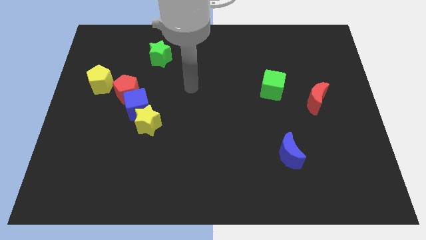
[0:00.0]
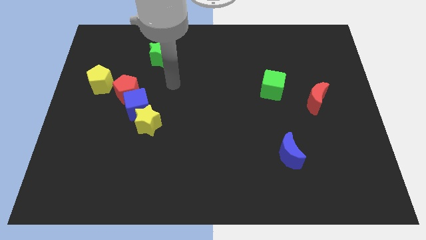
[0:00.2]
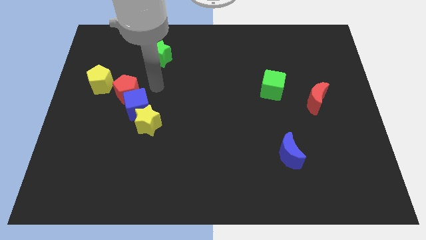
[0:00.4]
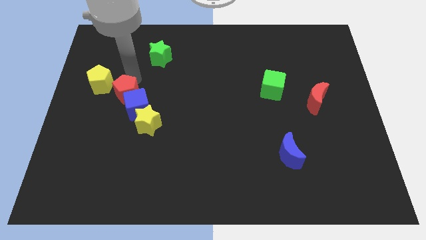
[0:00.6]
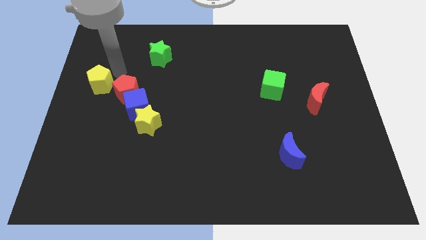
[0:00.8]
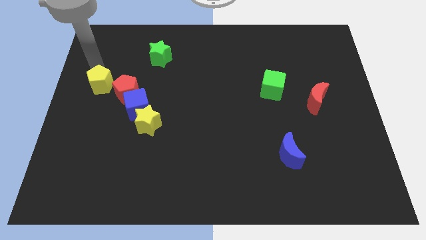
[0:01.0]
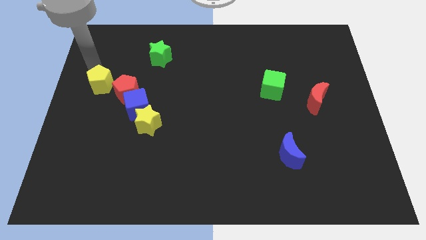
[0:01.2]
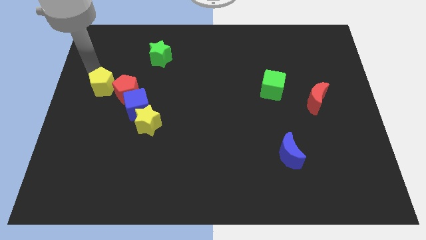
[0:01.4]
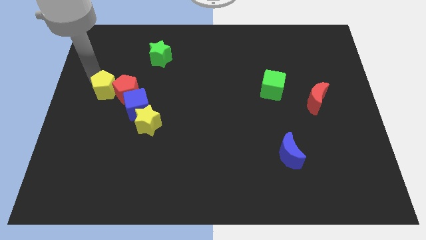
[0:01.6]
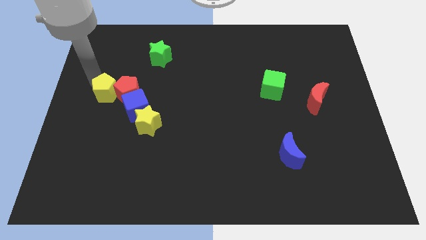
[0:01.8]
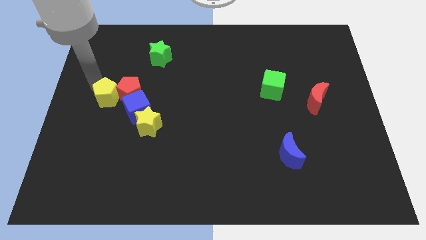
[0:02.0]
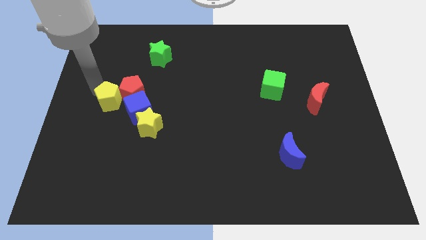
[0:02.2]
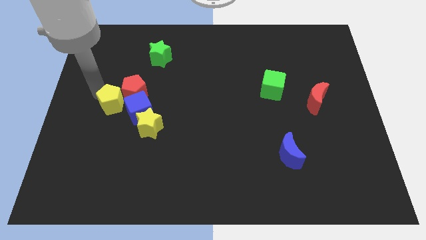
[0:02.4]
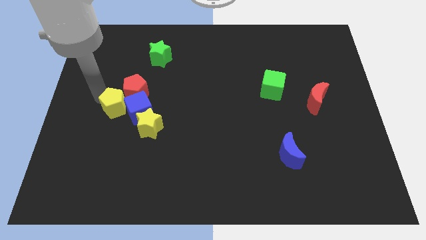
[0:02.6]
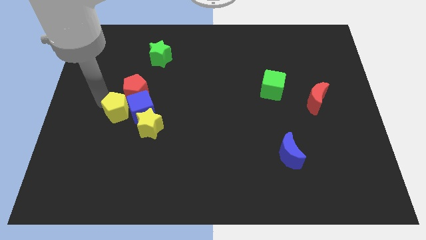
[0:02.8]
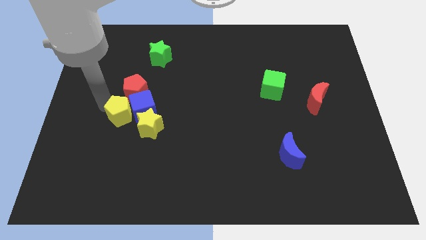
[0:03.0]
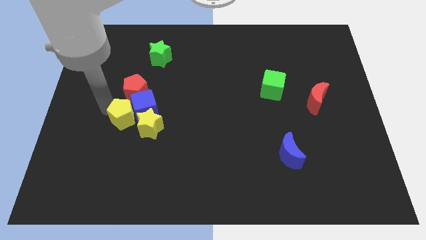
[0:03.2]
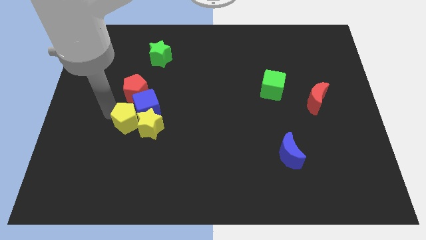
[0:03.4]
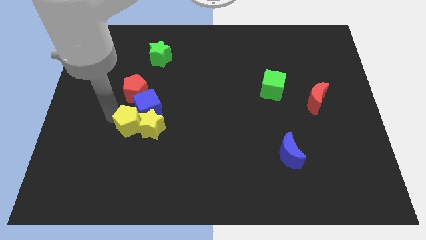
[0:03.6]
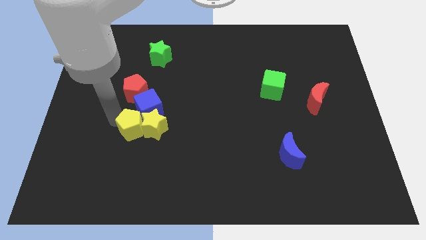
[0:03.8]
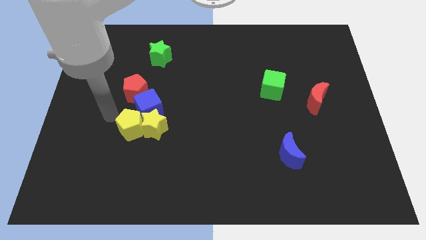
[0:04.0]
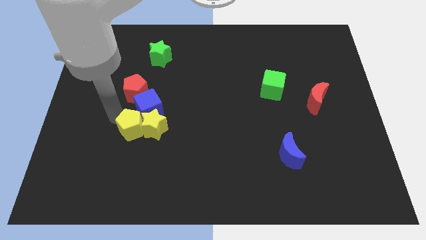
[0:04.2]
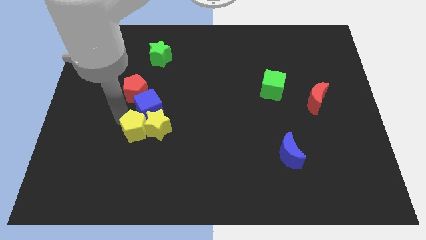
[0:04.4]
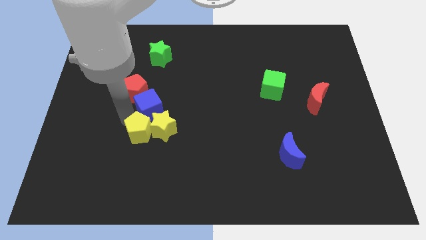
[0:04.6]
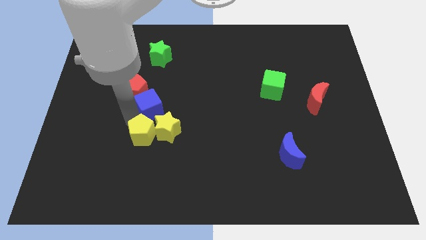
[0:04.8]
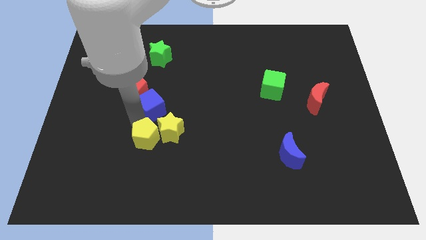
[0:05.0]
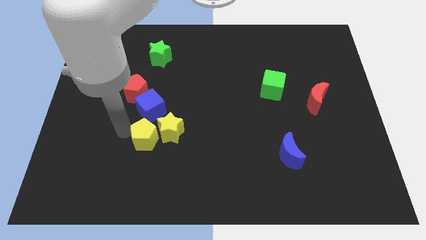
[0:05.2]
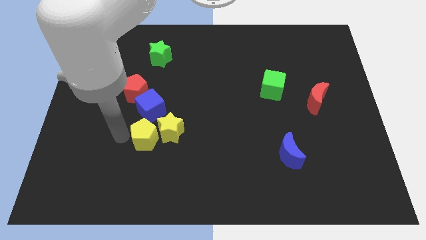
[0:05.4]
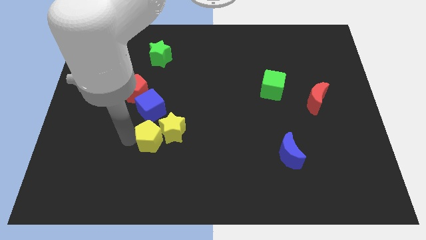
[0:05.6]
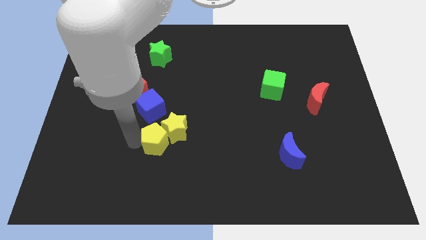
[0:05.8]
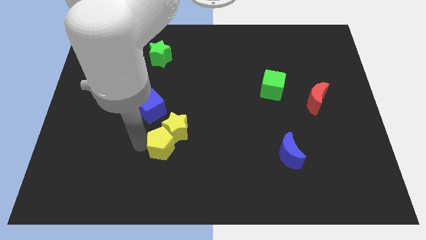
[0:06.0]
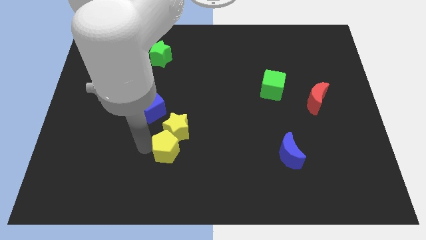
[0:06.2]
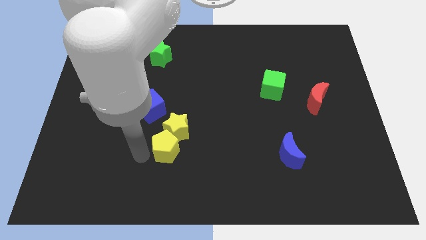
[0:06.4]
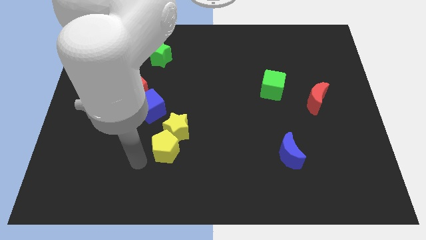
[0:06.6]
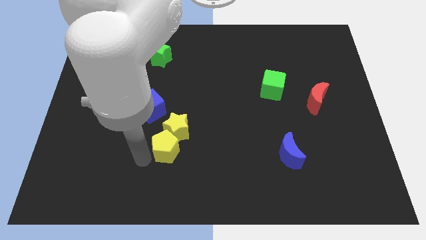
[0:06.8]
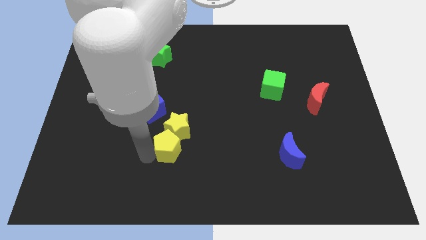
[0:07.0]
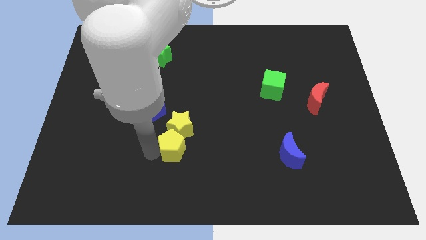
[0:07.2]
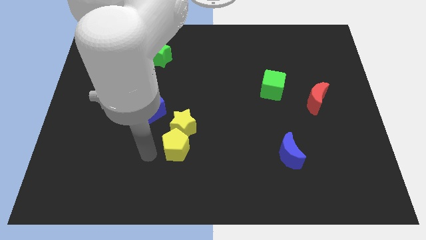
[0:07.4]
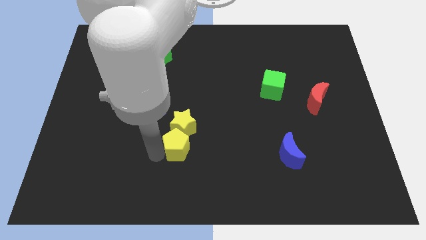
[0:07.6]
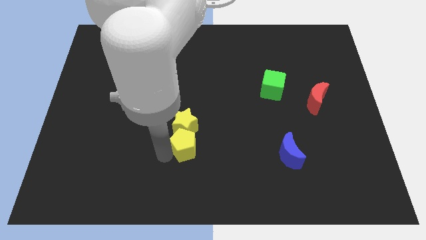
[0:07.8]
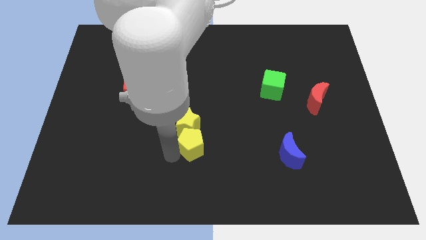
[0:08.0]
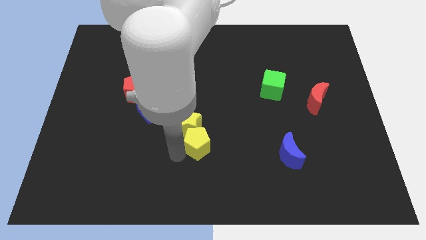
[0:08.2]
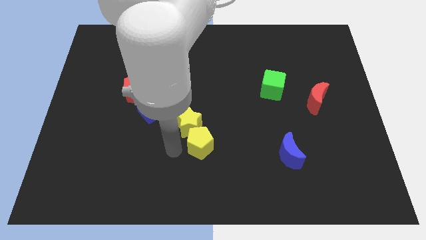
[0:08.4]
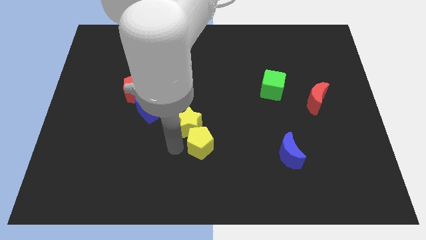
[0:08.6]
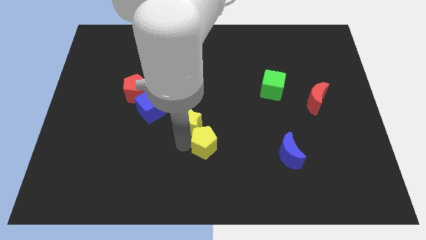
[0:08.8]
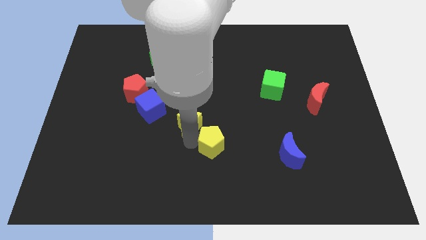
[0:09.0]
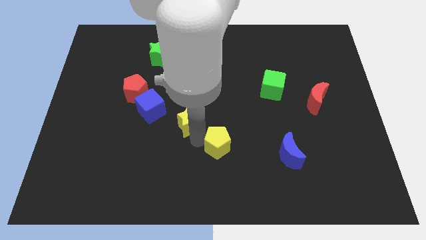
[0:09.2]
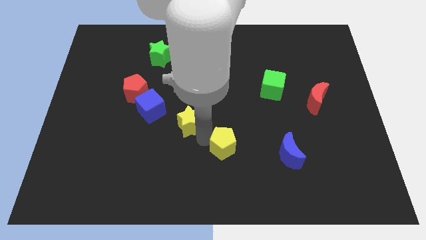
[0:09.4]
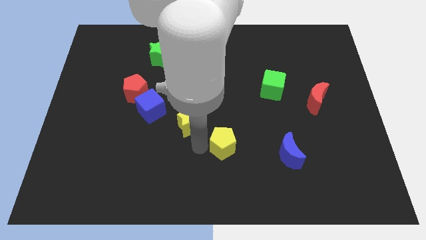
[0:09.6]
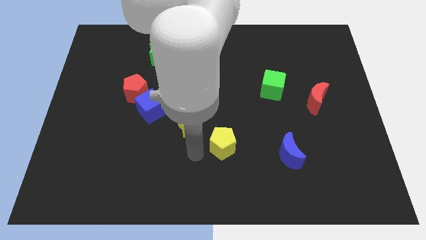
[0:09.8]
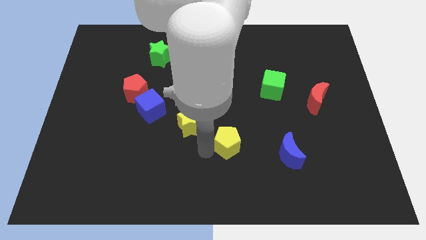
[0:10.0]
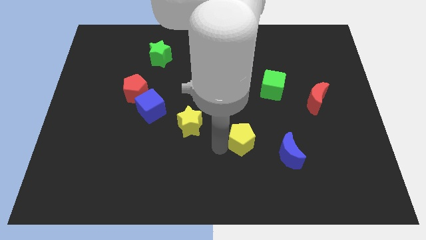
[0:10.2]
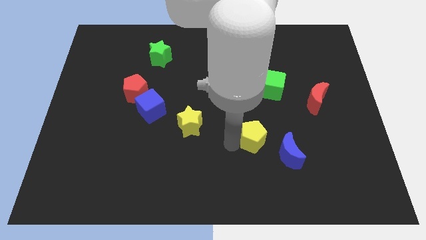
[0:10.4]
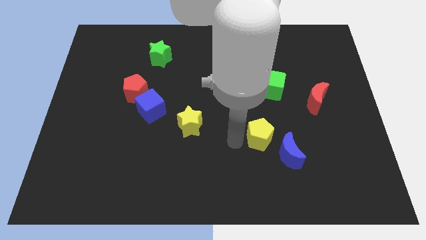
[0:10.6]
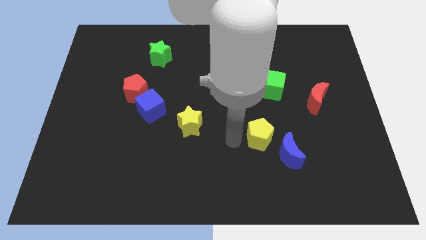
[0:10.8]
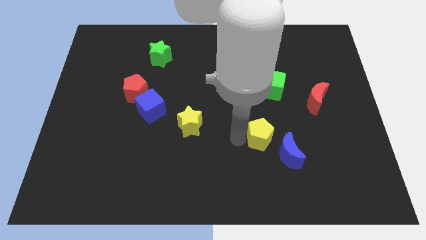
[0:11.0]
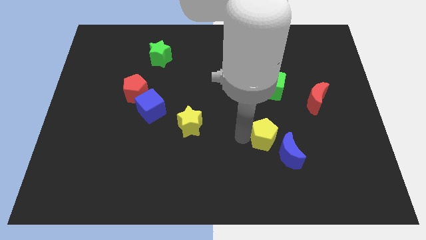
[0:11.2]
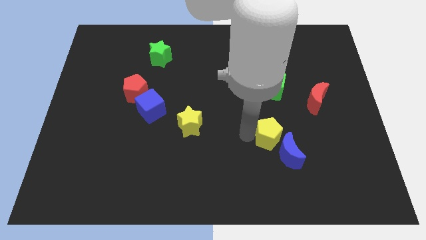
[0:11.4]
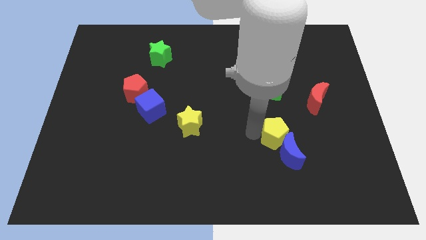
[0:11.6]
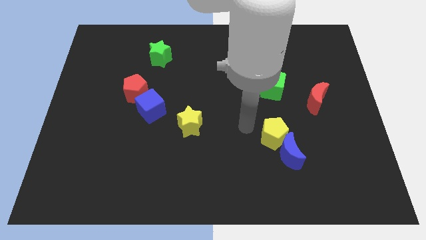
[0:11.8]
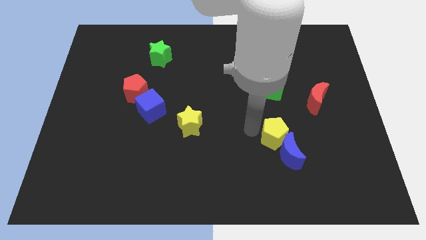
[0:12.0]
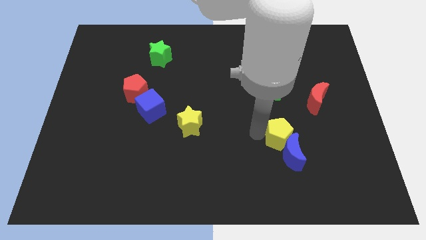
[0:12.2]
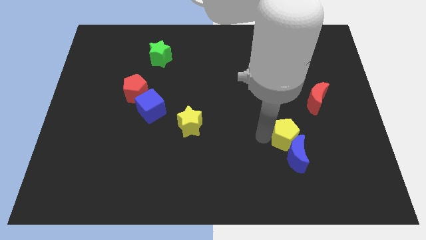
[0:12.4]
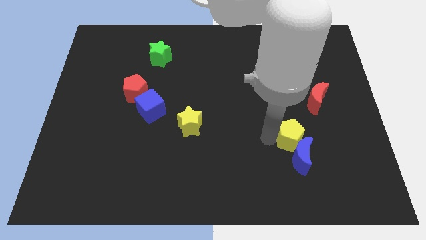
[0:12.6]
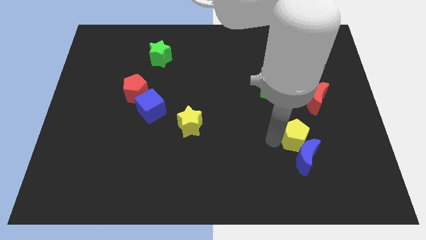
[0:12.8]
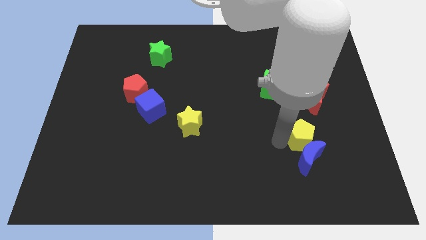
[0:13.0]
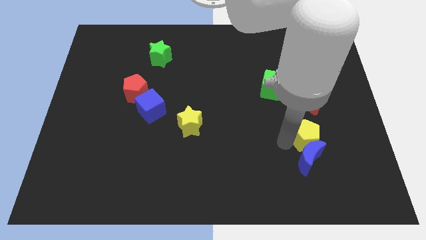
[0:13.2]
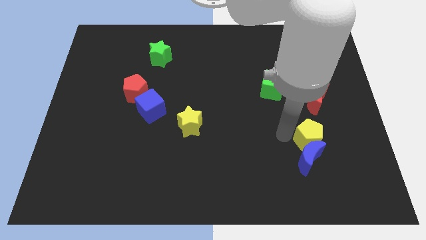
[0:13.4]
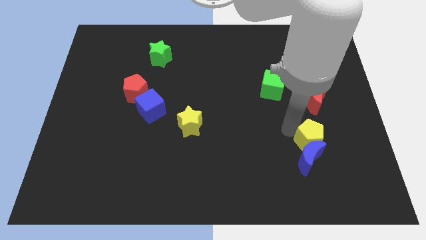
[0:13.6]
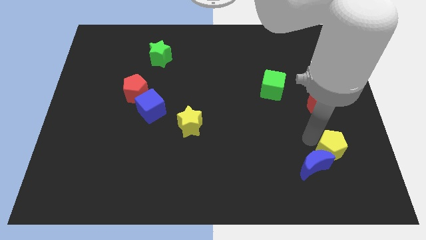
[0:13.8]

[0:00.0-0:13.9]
move the yellow pentagon to the right of the blue moon

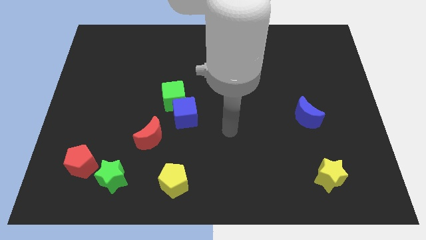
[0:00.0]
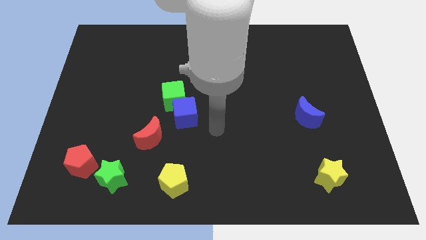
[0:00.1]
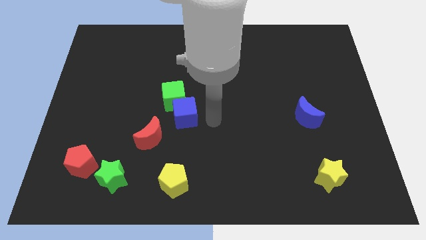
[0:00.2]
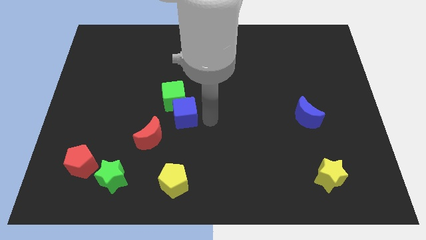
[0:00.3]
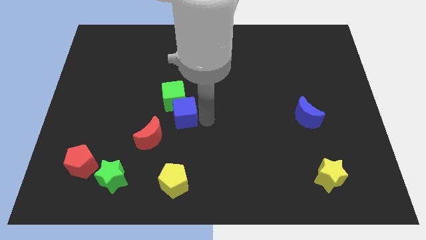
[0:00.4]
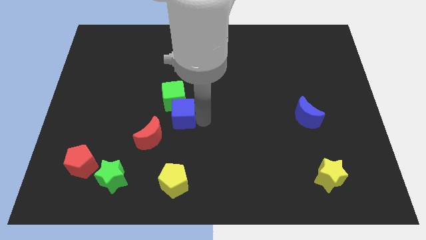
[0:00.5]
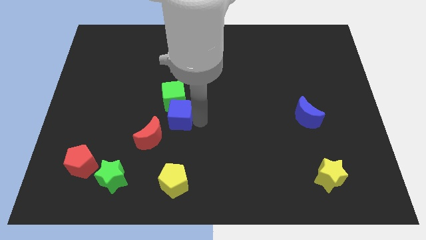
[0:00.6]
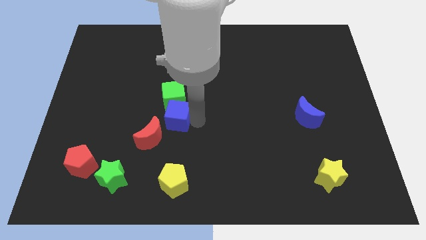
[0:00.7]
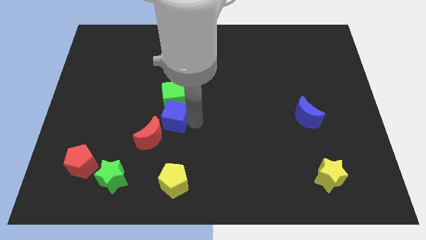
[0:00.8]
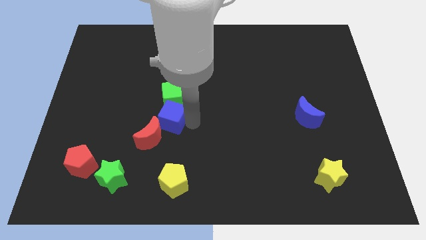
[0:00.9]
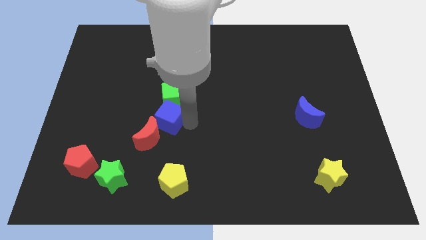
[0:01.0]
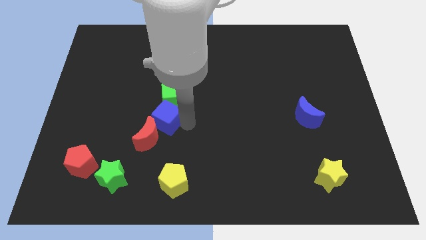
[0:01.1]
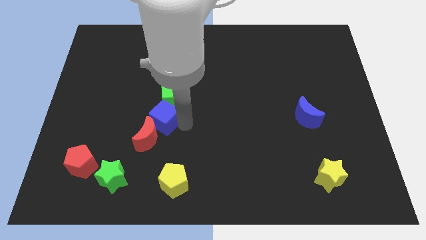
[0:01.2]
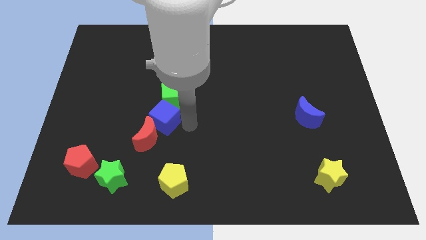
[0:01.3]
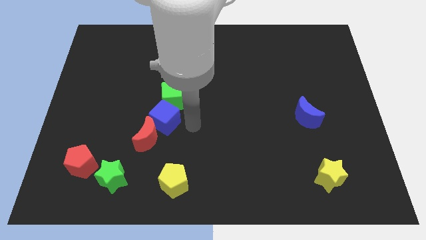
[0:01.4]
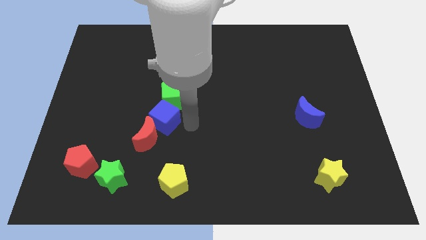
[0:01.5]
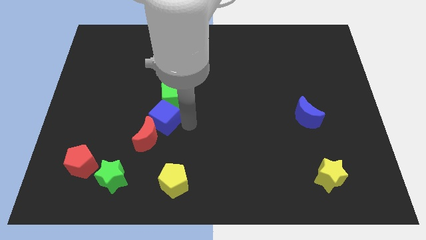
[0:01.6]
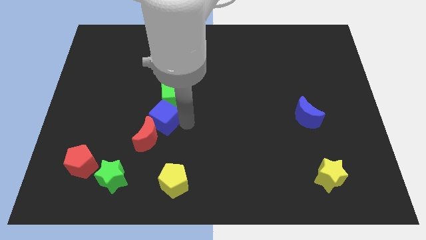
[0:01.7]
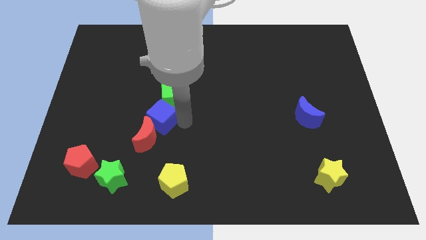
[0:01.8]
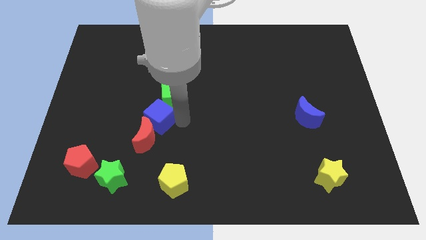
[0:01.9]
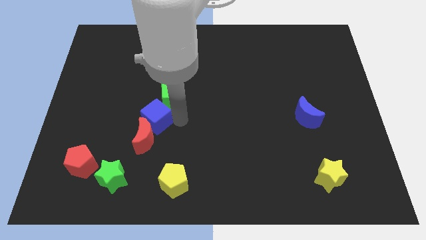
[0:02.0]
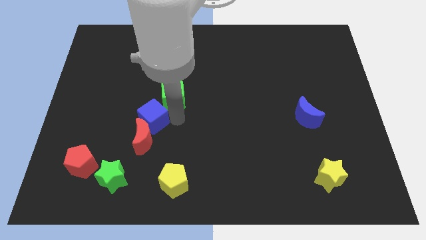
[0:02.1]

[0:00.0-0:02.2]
put the blue cube to the top left of the red moon
